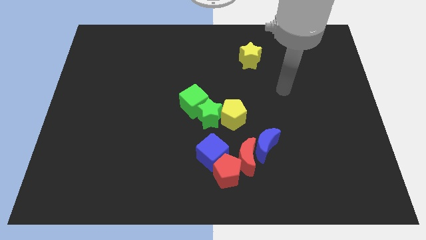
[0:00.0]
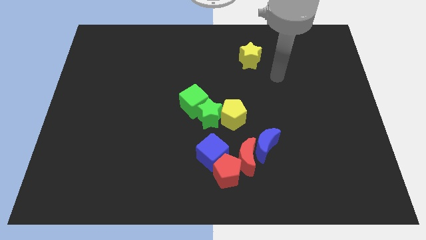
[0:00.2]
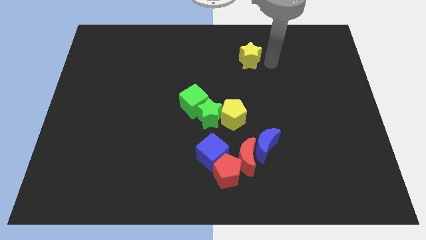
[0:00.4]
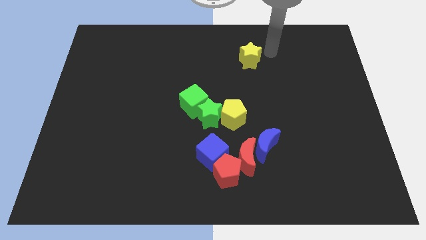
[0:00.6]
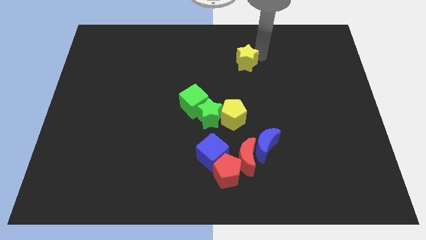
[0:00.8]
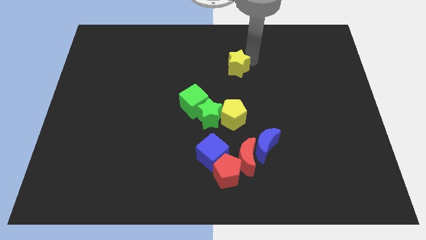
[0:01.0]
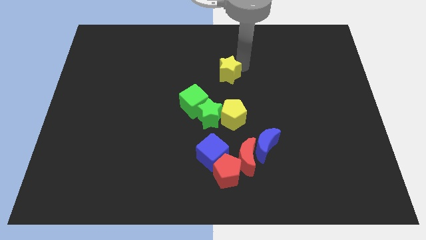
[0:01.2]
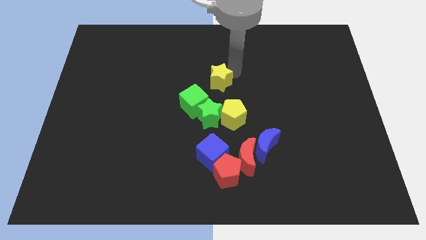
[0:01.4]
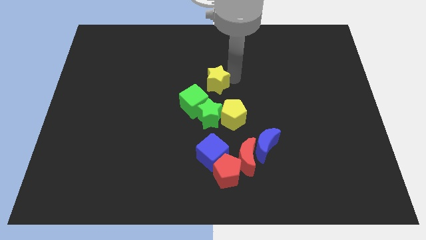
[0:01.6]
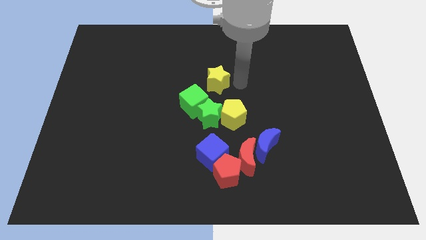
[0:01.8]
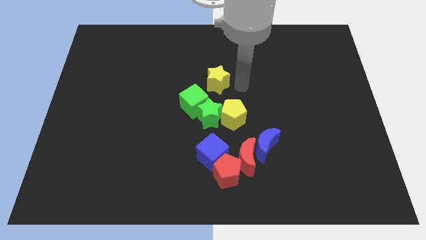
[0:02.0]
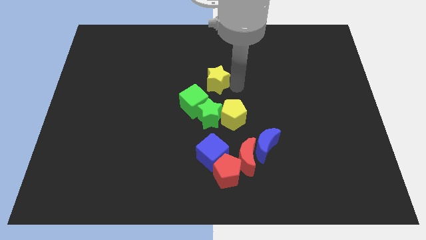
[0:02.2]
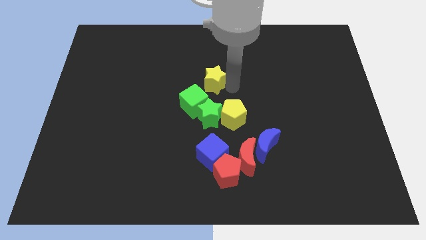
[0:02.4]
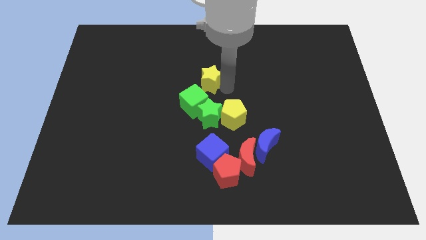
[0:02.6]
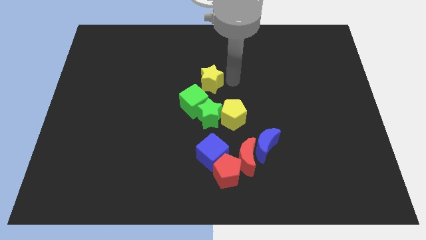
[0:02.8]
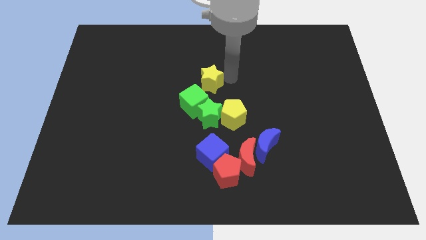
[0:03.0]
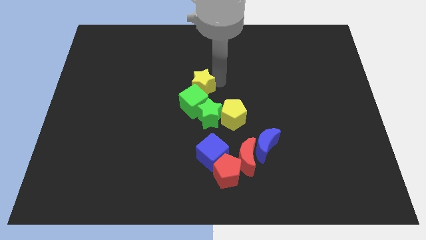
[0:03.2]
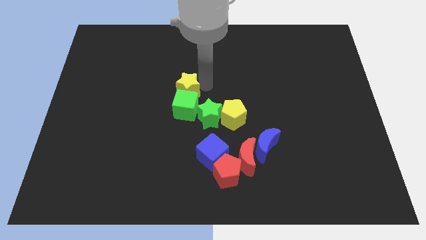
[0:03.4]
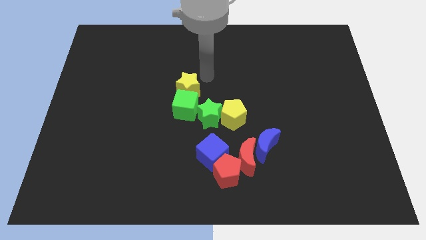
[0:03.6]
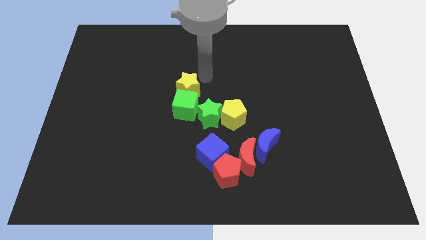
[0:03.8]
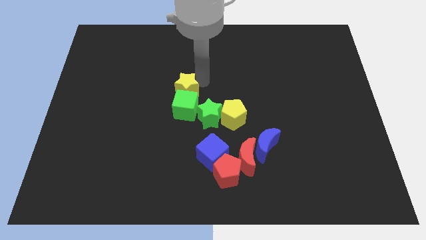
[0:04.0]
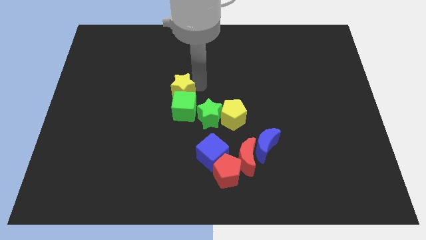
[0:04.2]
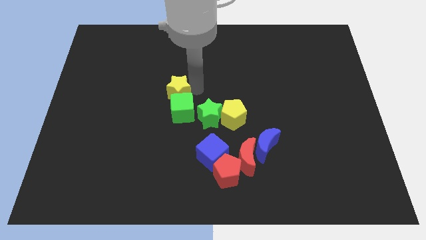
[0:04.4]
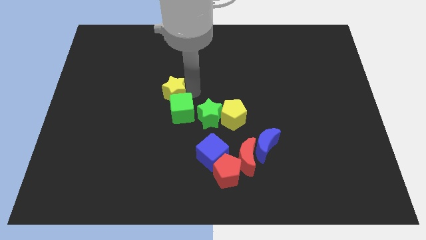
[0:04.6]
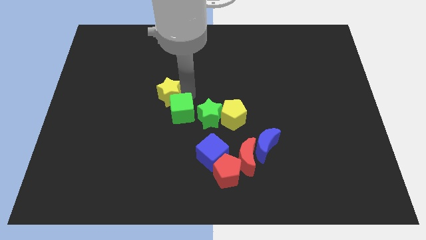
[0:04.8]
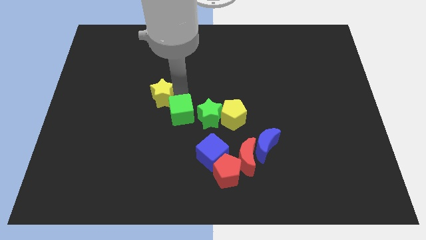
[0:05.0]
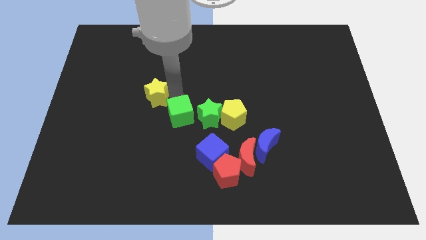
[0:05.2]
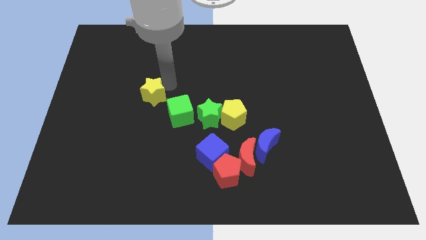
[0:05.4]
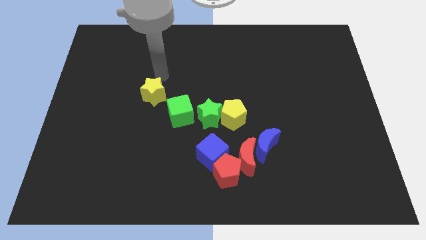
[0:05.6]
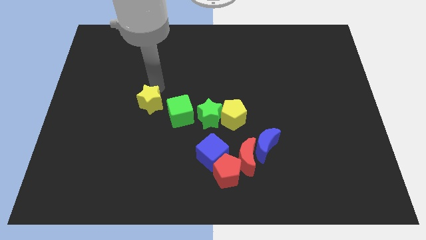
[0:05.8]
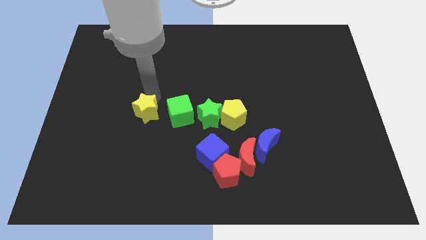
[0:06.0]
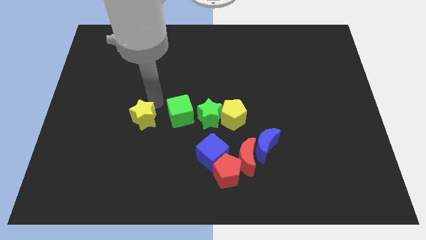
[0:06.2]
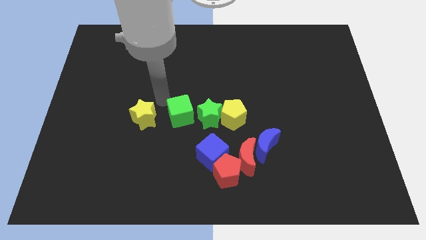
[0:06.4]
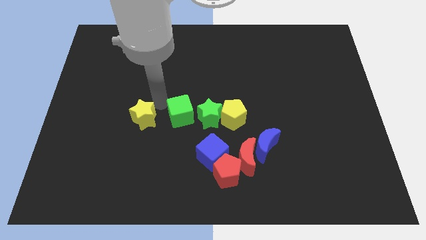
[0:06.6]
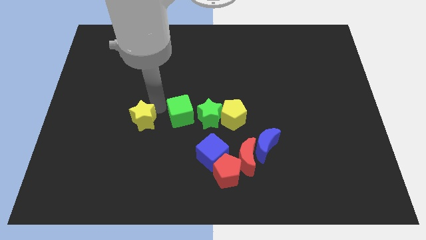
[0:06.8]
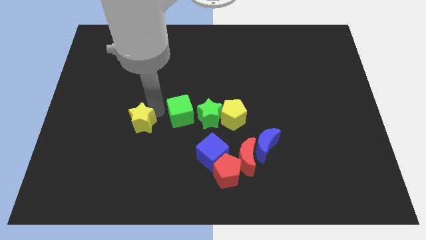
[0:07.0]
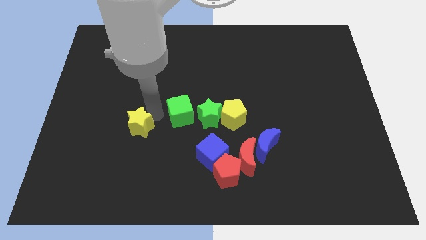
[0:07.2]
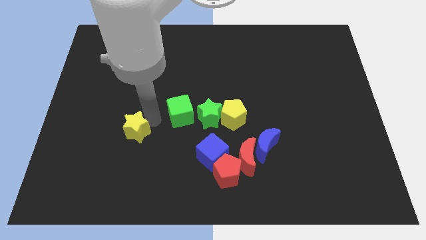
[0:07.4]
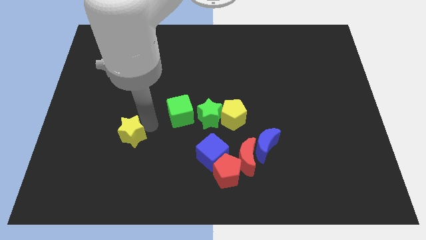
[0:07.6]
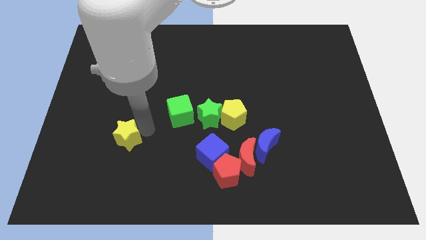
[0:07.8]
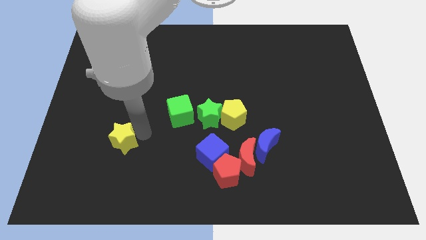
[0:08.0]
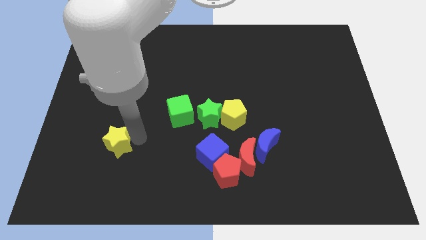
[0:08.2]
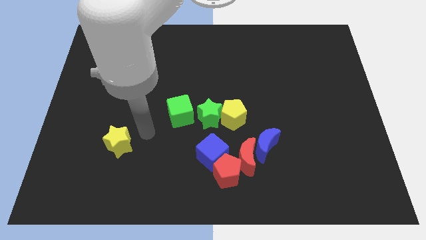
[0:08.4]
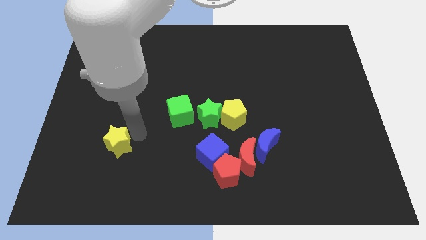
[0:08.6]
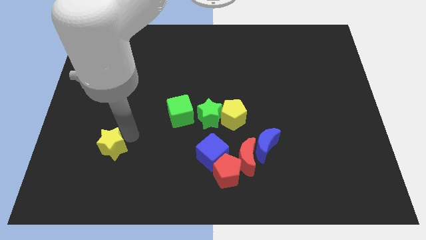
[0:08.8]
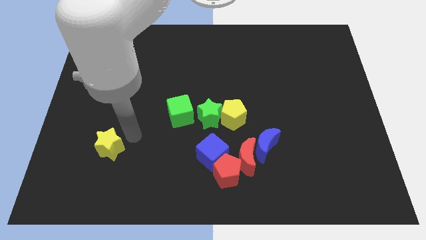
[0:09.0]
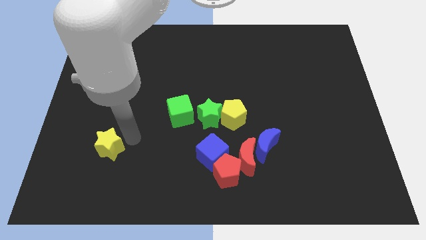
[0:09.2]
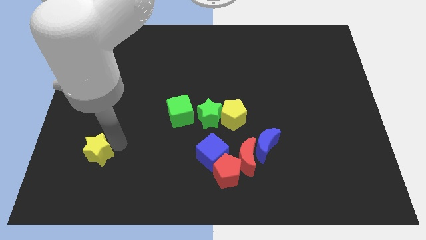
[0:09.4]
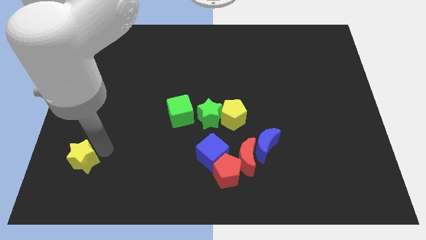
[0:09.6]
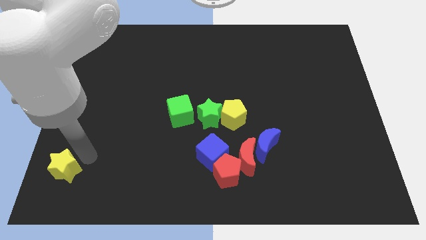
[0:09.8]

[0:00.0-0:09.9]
put the yellow star to the bottom left

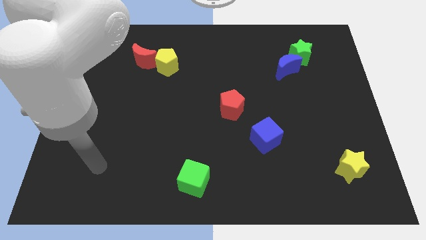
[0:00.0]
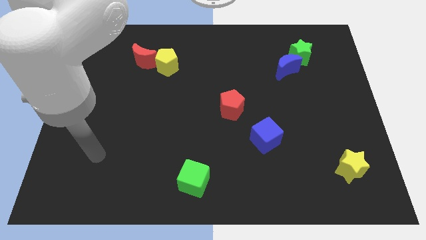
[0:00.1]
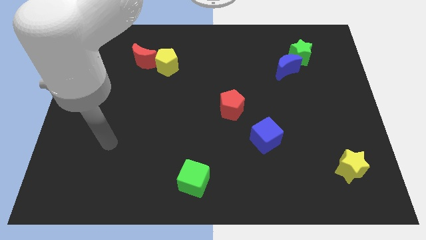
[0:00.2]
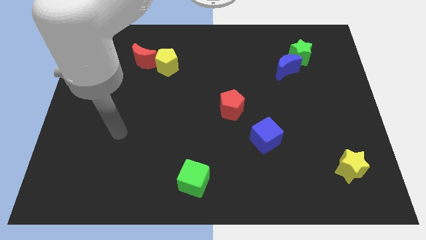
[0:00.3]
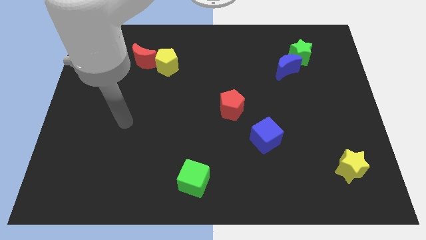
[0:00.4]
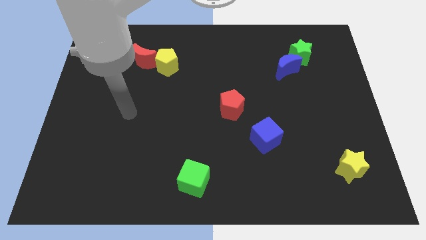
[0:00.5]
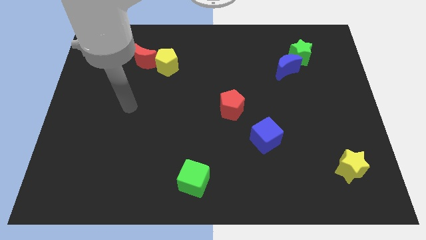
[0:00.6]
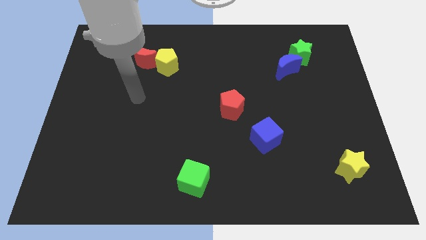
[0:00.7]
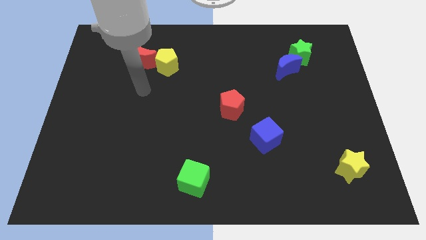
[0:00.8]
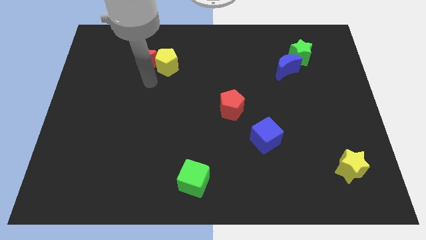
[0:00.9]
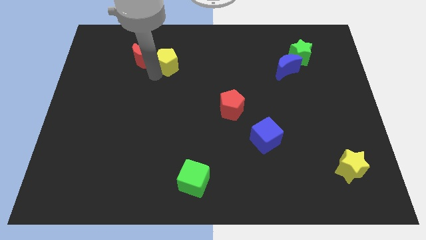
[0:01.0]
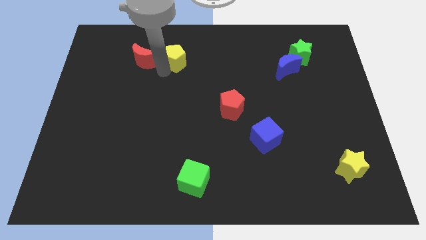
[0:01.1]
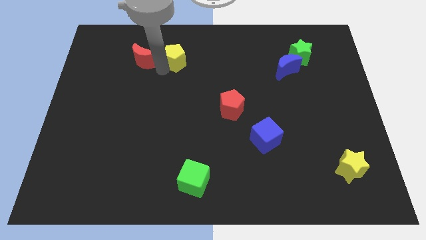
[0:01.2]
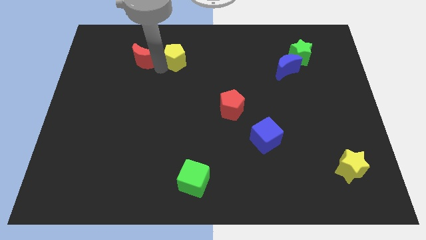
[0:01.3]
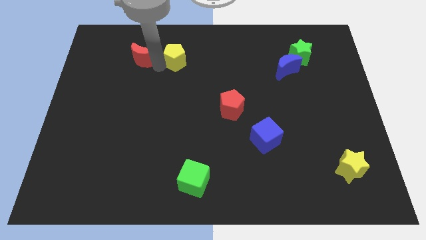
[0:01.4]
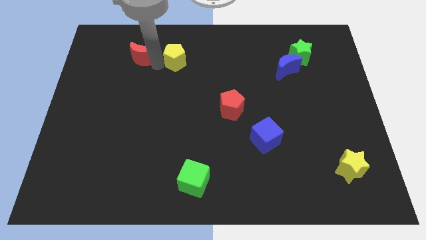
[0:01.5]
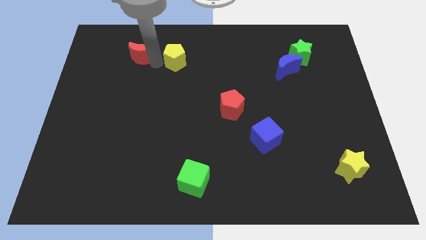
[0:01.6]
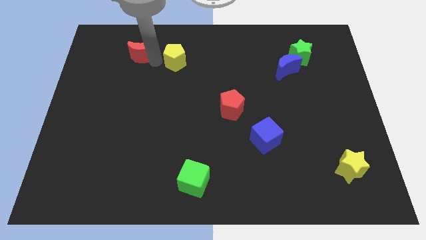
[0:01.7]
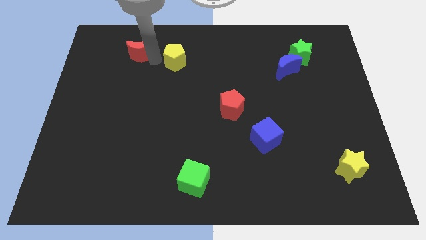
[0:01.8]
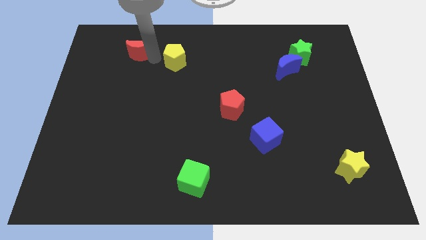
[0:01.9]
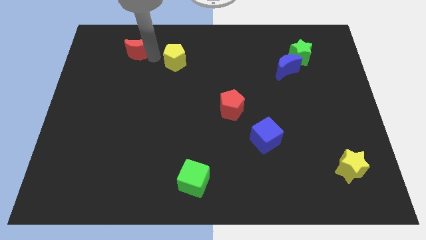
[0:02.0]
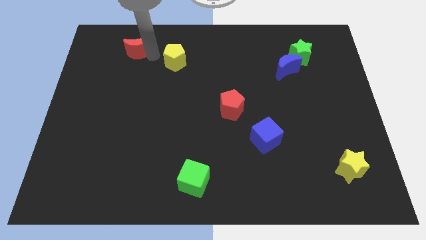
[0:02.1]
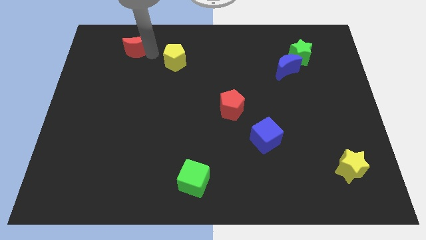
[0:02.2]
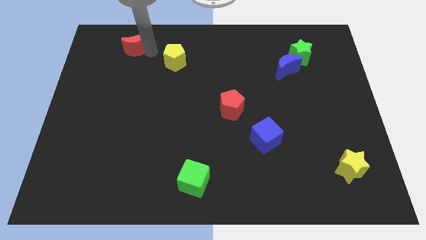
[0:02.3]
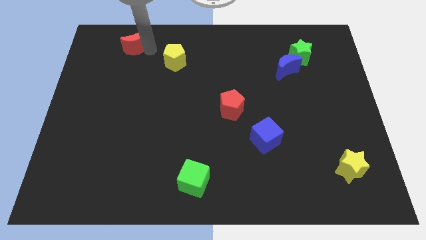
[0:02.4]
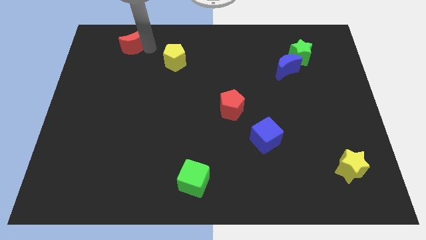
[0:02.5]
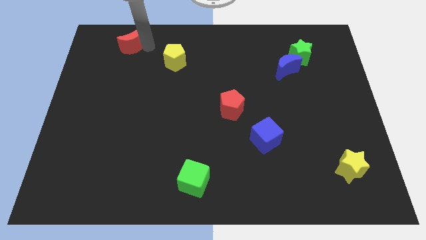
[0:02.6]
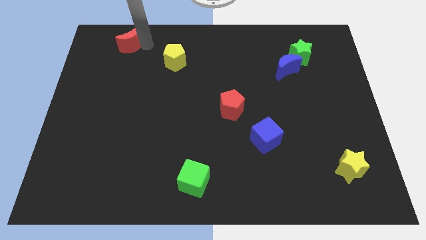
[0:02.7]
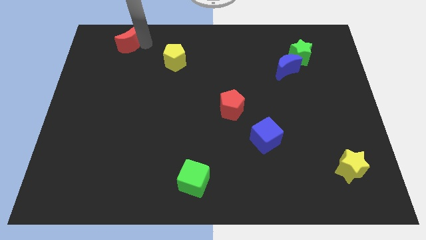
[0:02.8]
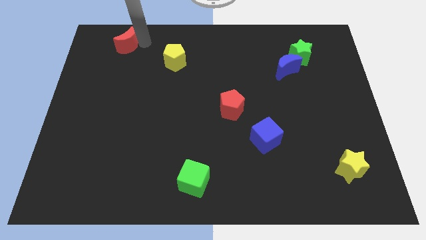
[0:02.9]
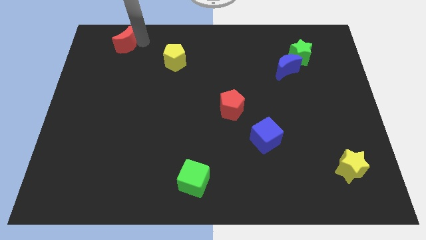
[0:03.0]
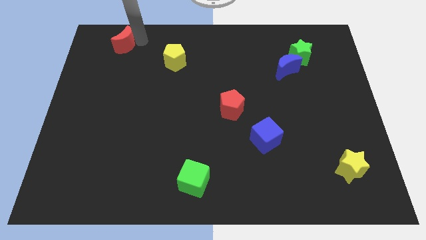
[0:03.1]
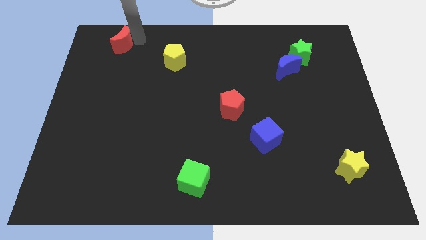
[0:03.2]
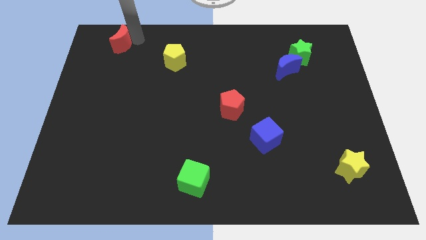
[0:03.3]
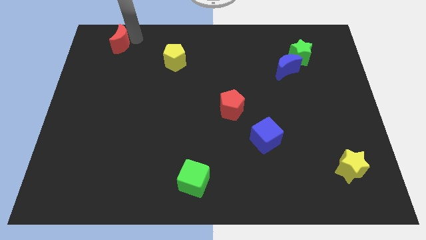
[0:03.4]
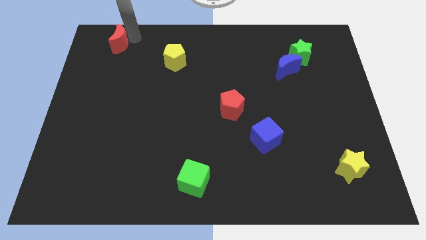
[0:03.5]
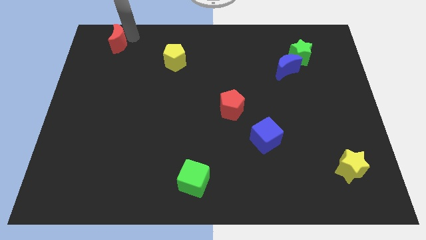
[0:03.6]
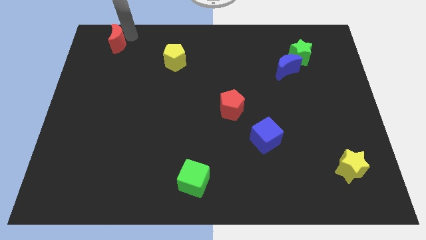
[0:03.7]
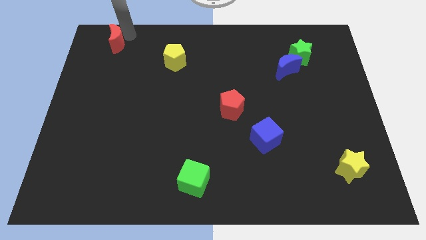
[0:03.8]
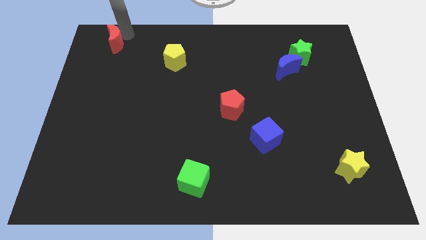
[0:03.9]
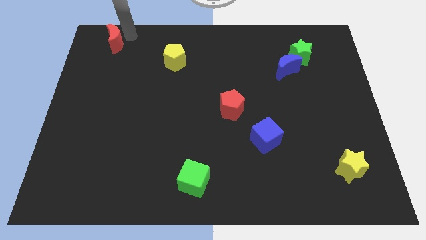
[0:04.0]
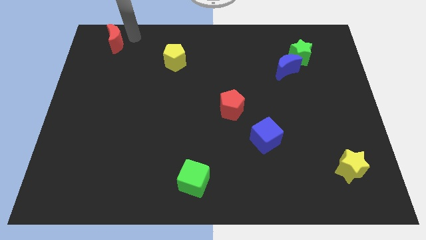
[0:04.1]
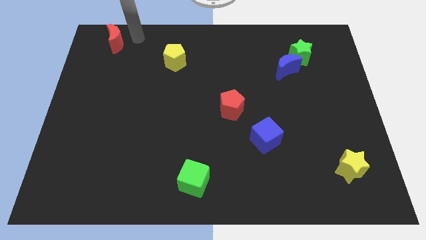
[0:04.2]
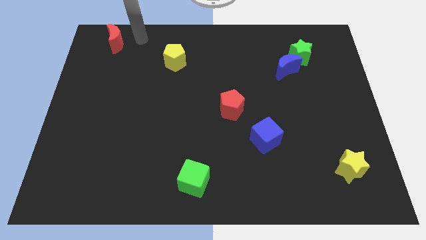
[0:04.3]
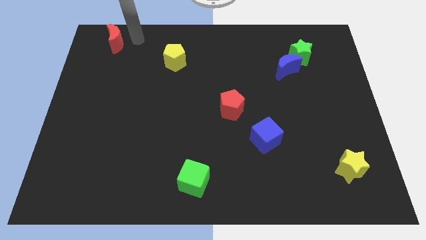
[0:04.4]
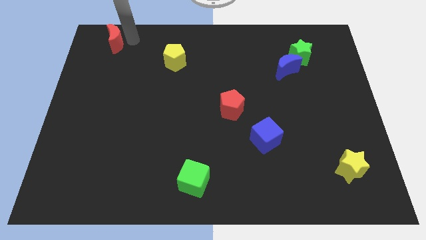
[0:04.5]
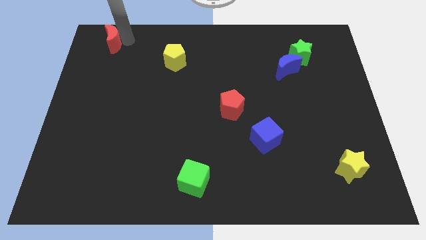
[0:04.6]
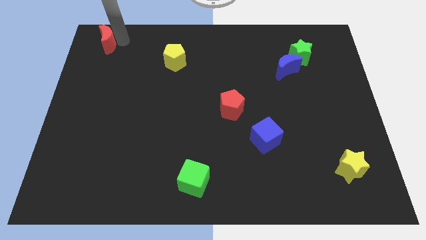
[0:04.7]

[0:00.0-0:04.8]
put the red moon to the top left of the board
